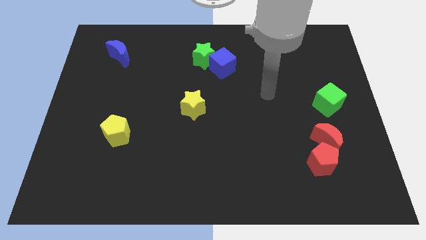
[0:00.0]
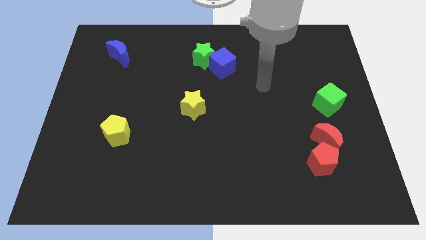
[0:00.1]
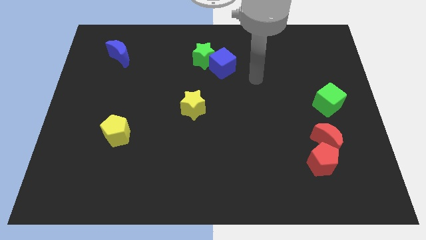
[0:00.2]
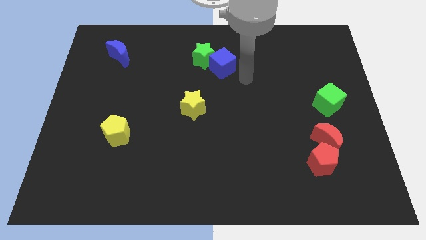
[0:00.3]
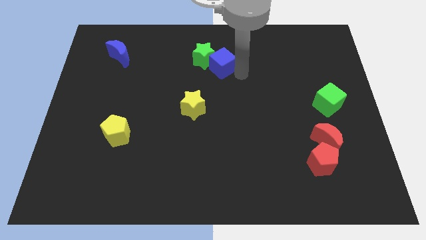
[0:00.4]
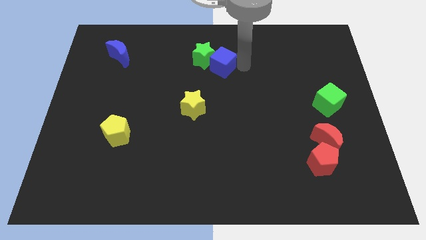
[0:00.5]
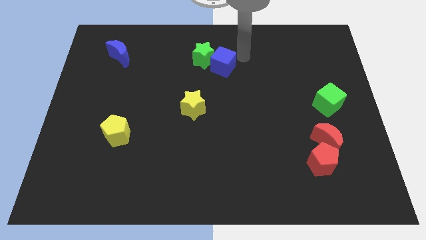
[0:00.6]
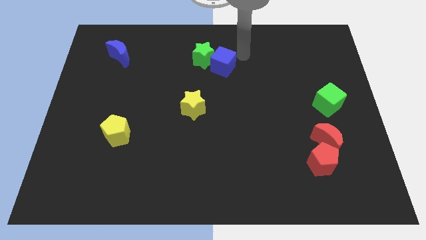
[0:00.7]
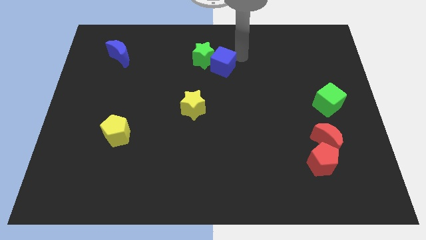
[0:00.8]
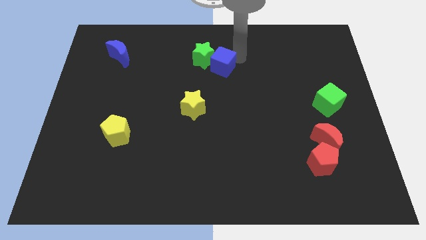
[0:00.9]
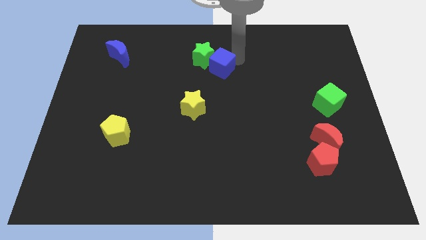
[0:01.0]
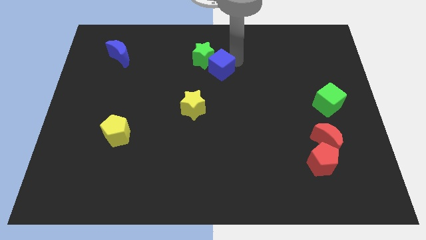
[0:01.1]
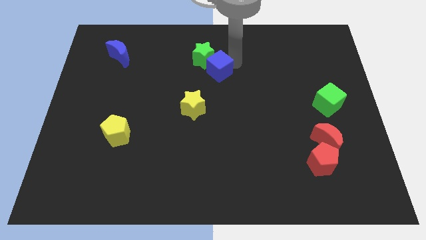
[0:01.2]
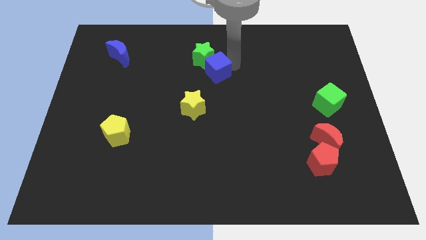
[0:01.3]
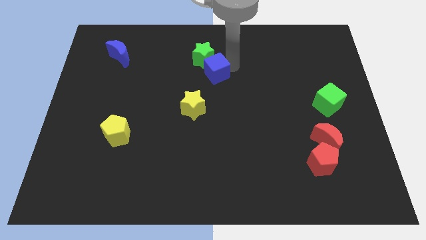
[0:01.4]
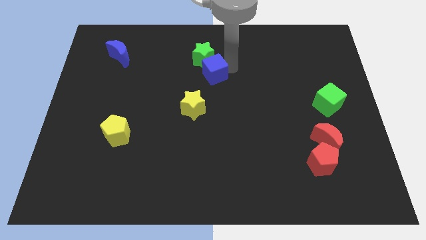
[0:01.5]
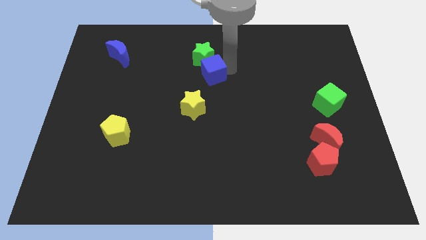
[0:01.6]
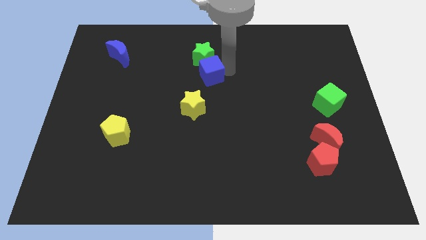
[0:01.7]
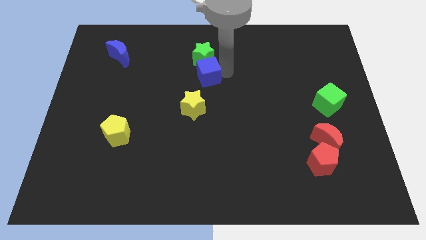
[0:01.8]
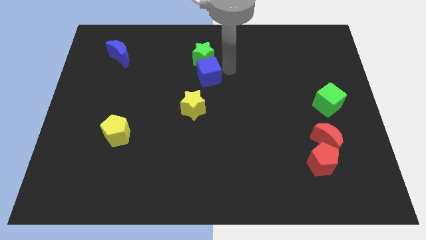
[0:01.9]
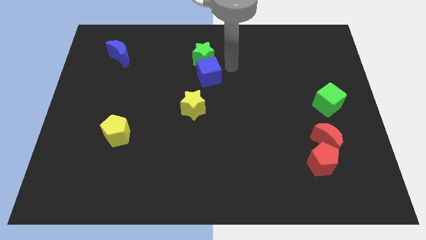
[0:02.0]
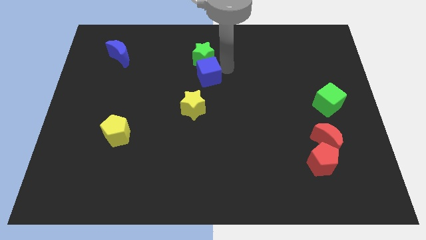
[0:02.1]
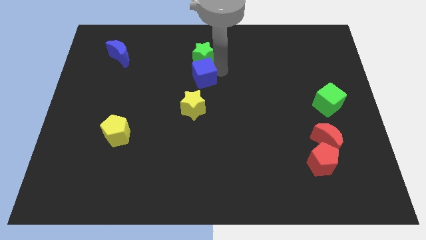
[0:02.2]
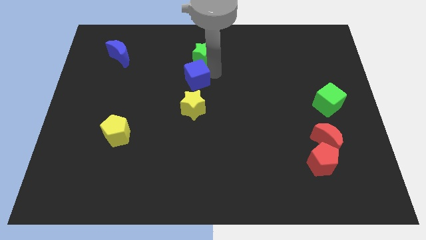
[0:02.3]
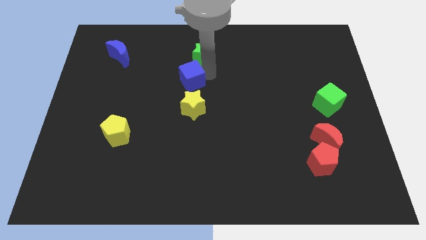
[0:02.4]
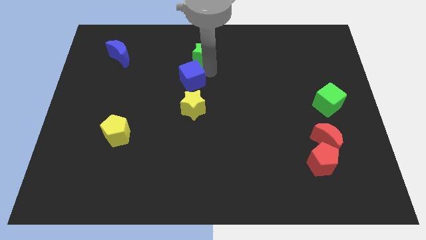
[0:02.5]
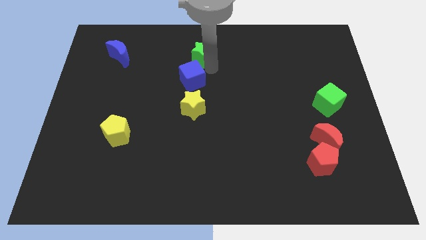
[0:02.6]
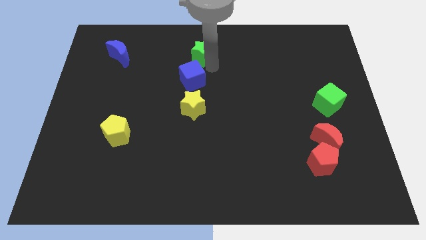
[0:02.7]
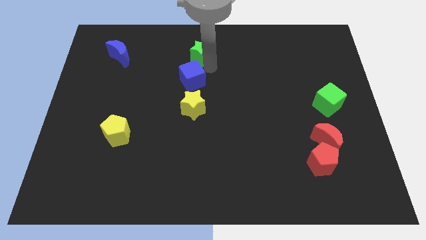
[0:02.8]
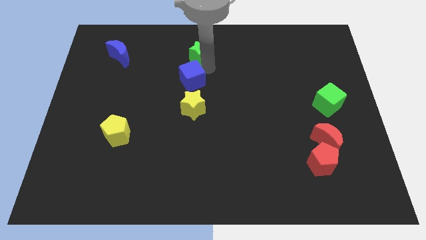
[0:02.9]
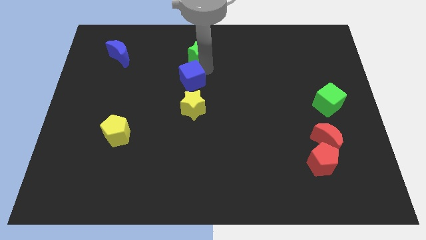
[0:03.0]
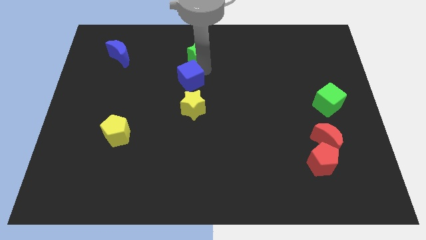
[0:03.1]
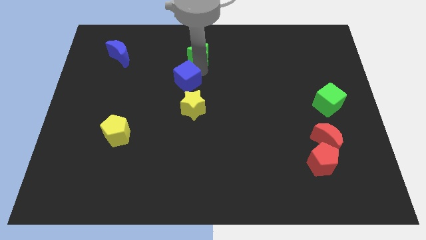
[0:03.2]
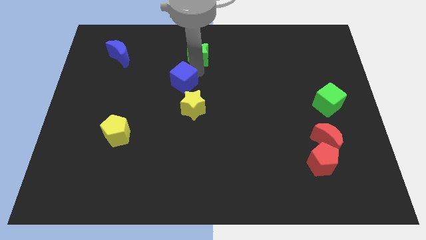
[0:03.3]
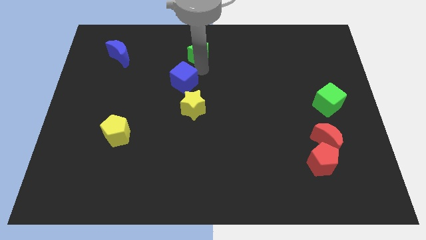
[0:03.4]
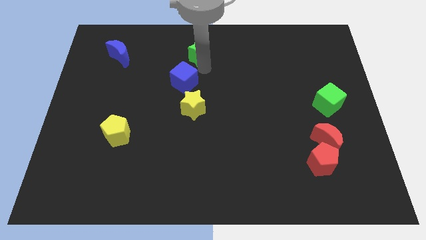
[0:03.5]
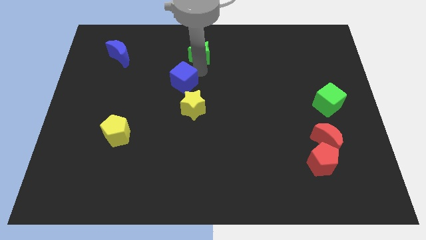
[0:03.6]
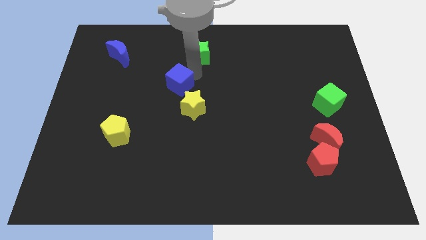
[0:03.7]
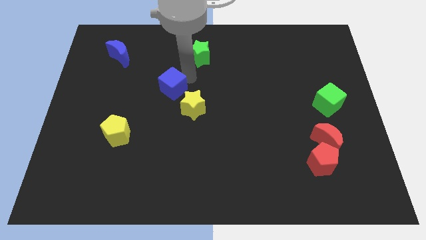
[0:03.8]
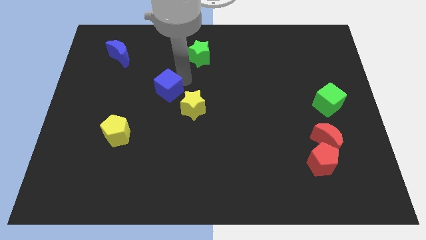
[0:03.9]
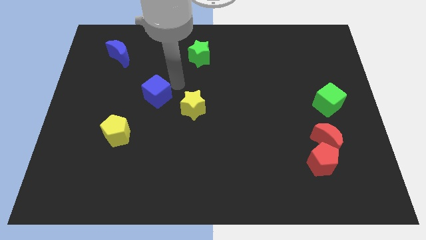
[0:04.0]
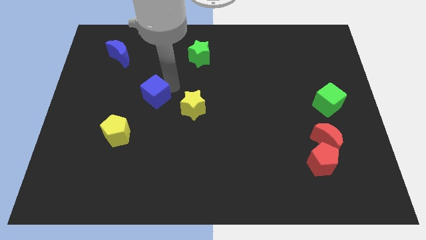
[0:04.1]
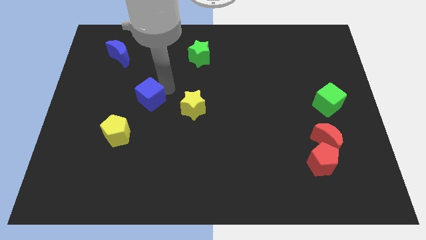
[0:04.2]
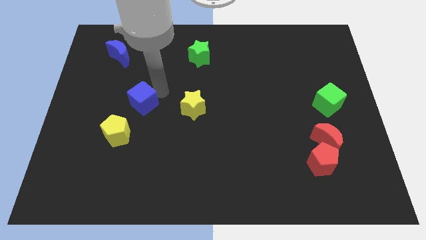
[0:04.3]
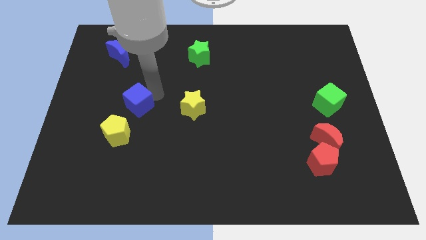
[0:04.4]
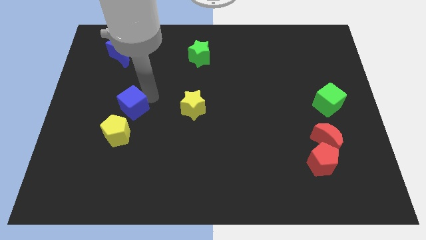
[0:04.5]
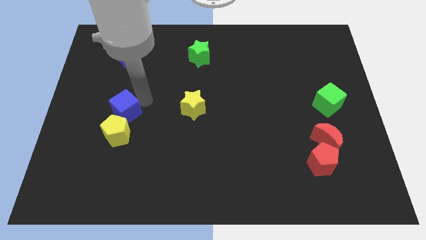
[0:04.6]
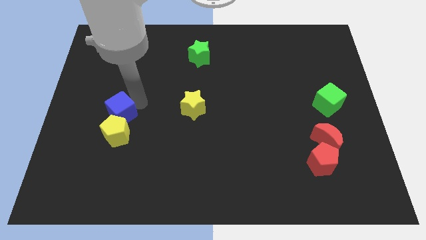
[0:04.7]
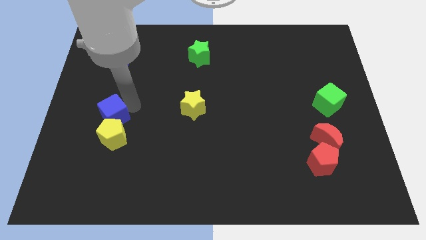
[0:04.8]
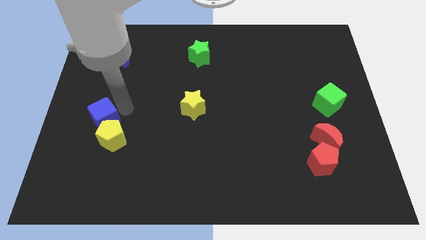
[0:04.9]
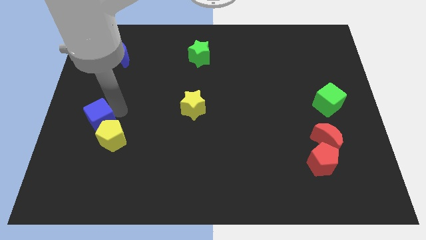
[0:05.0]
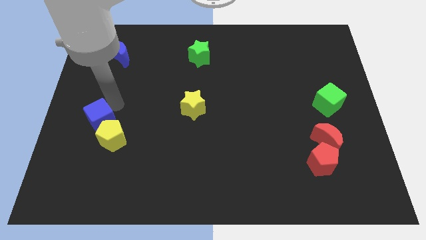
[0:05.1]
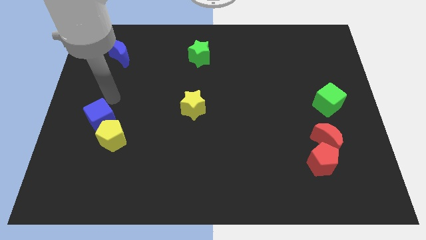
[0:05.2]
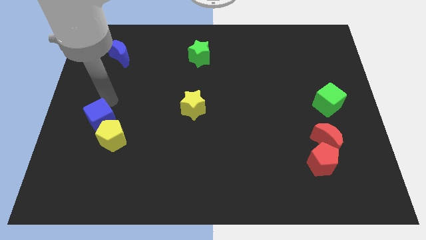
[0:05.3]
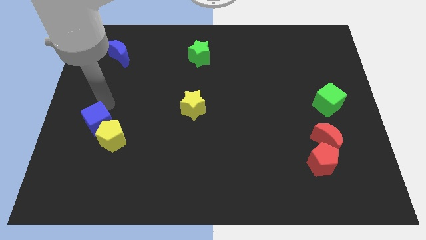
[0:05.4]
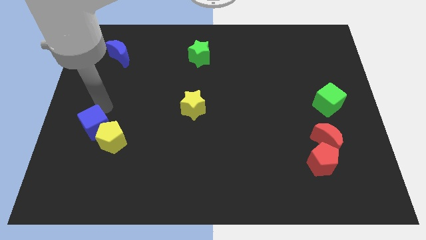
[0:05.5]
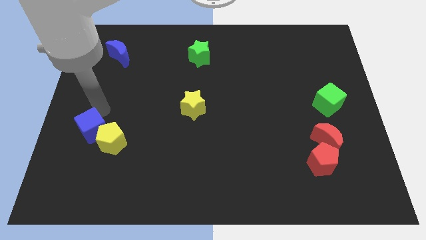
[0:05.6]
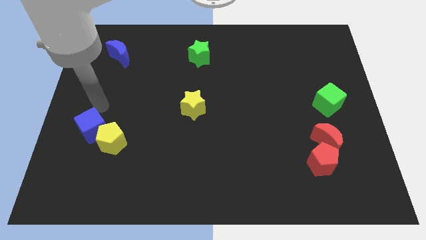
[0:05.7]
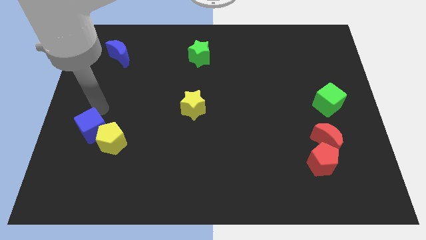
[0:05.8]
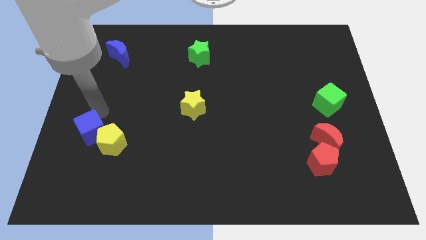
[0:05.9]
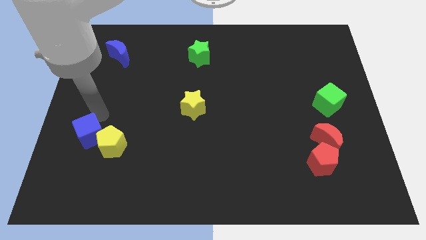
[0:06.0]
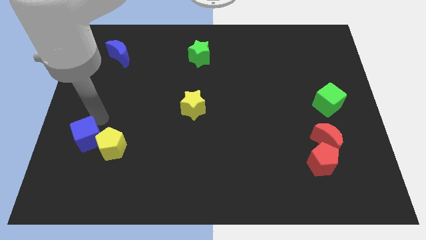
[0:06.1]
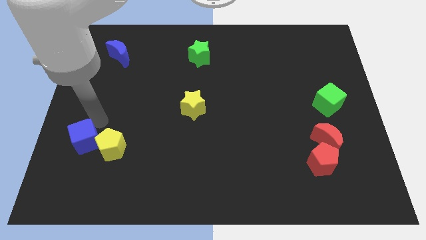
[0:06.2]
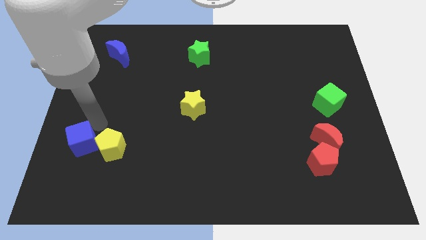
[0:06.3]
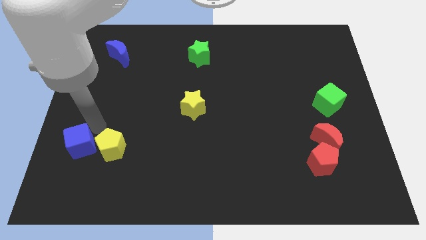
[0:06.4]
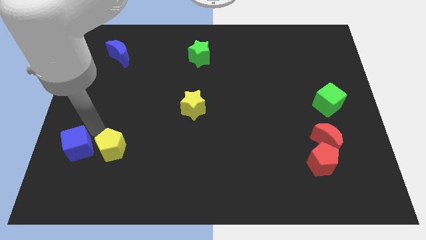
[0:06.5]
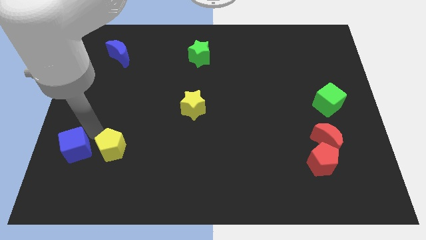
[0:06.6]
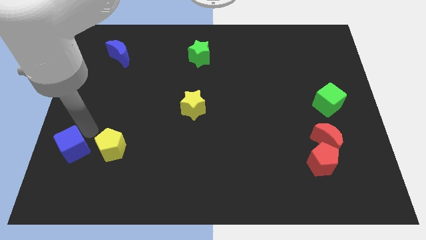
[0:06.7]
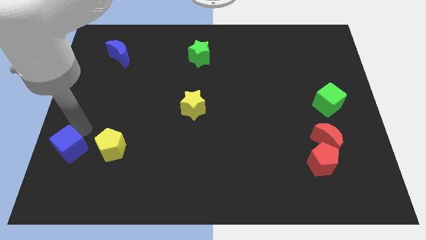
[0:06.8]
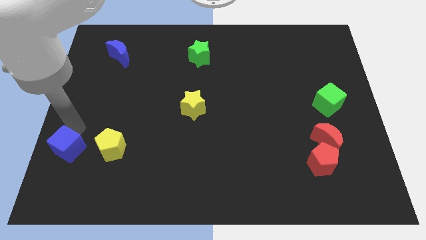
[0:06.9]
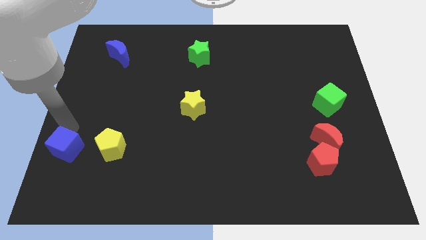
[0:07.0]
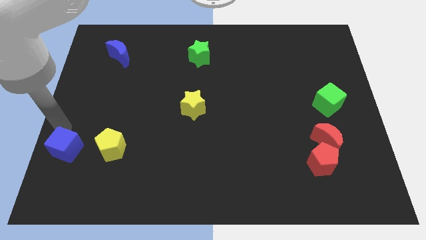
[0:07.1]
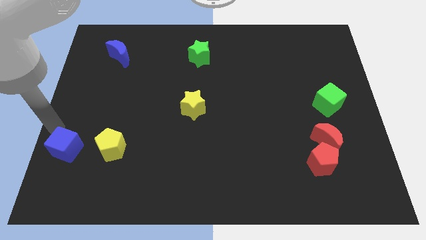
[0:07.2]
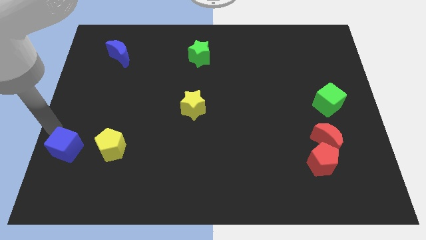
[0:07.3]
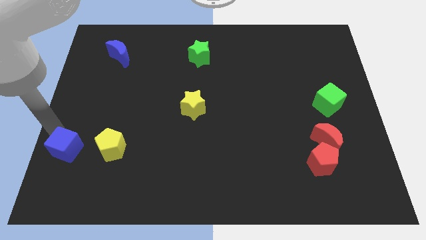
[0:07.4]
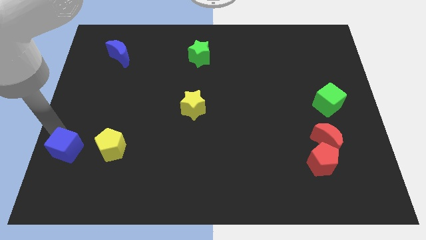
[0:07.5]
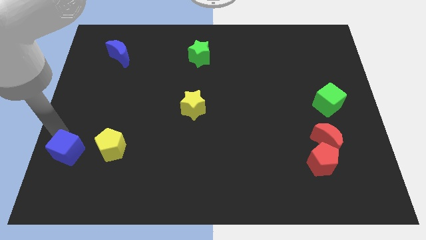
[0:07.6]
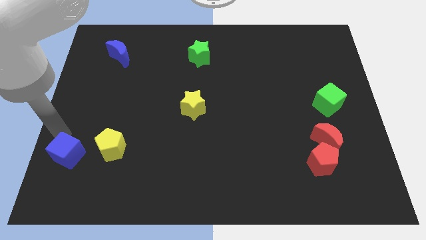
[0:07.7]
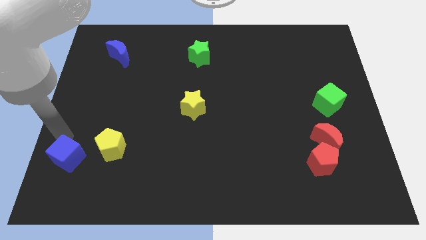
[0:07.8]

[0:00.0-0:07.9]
push the blue cube to the bottom left of the yellow pentagon
